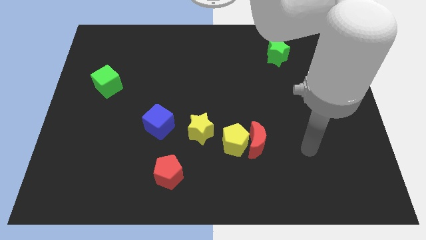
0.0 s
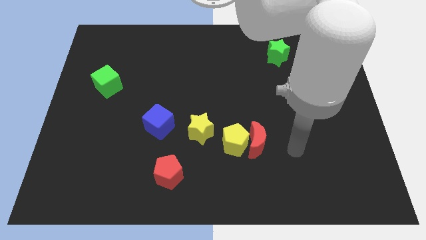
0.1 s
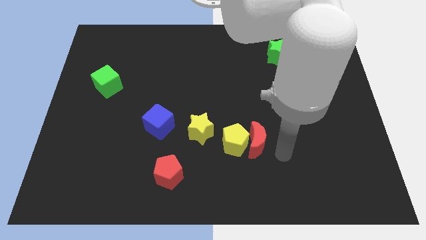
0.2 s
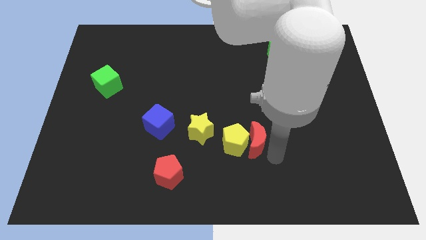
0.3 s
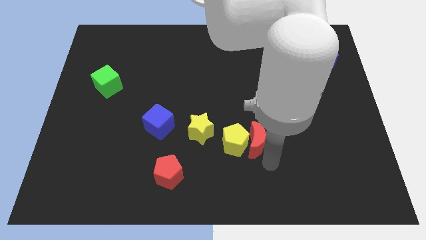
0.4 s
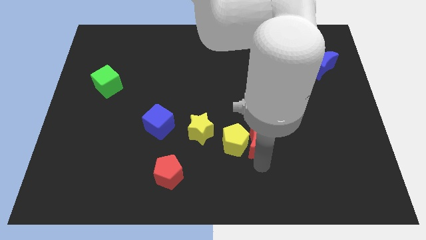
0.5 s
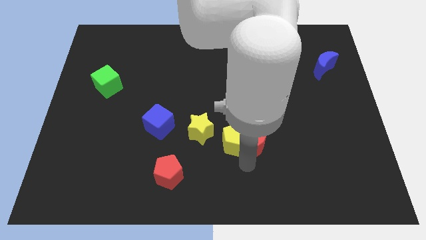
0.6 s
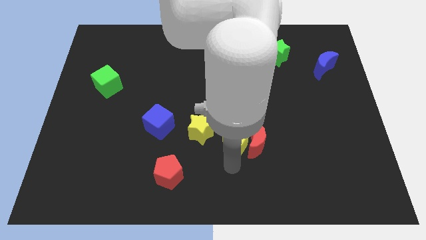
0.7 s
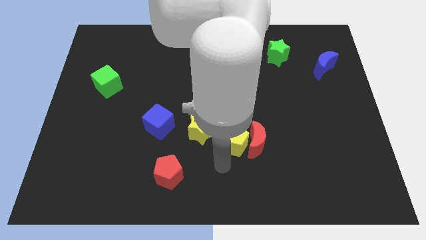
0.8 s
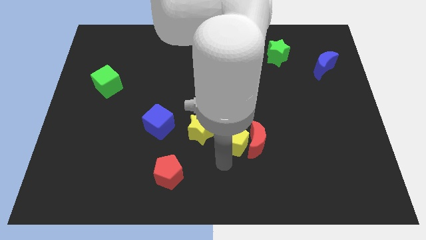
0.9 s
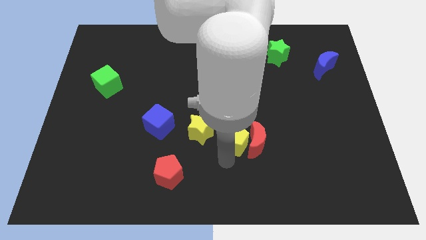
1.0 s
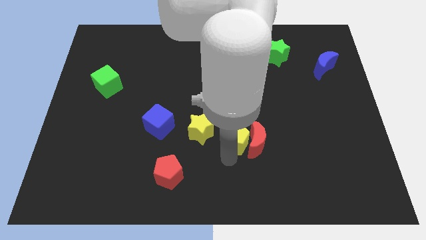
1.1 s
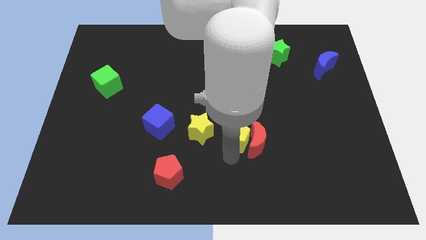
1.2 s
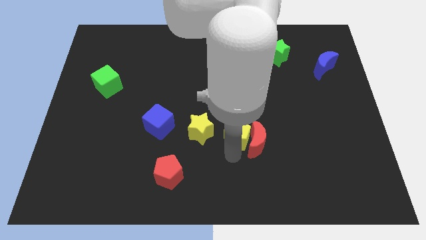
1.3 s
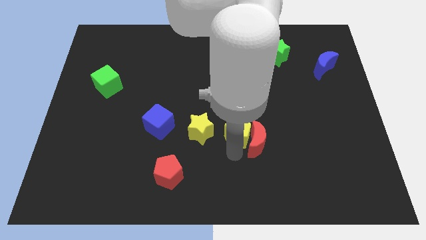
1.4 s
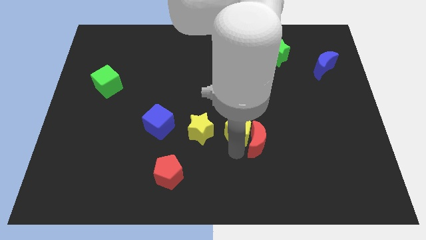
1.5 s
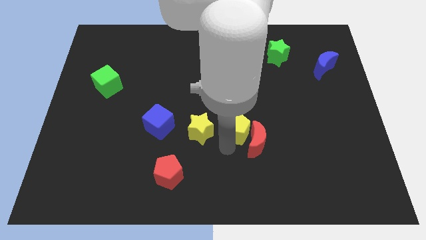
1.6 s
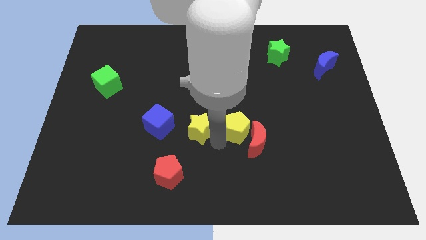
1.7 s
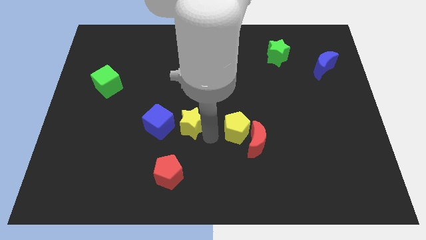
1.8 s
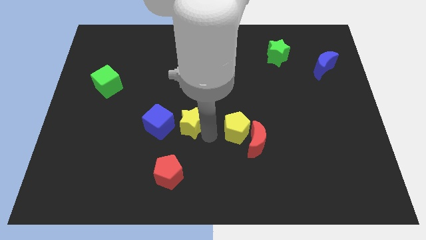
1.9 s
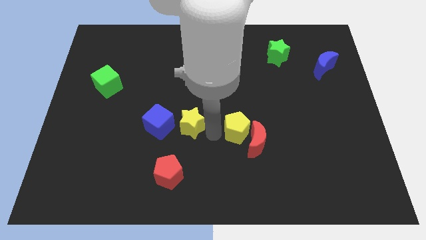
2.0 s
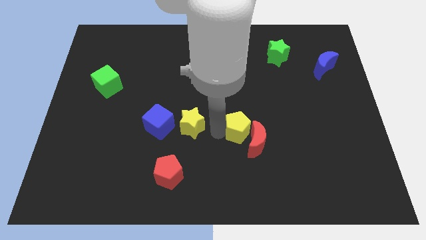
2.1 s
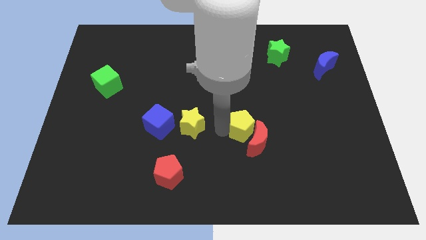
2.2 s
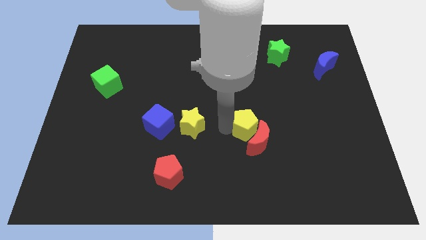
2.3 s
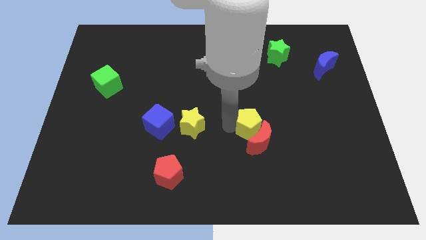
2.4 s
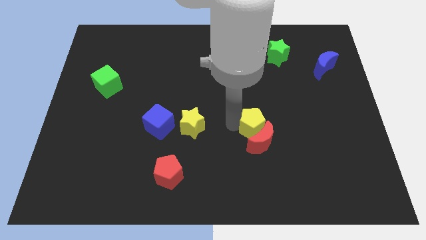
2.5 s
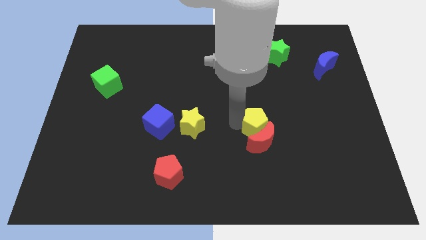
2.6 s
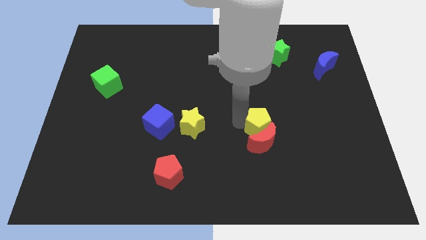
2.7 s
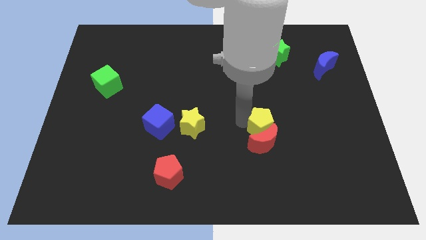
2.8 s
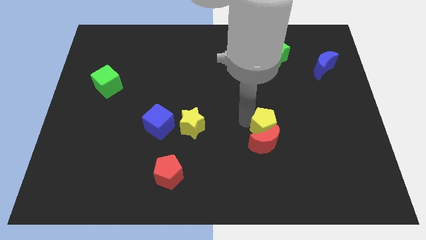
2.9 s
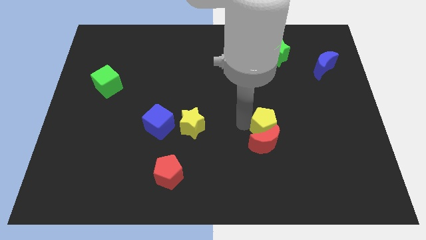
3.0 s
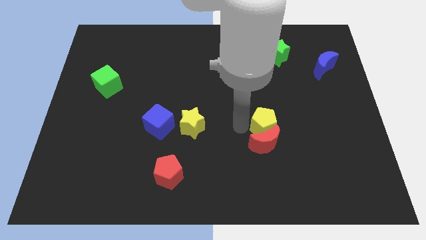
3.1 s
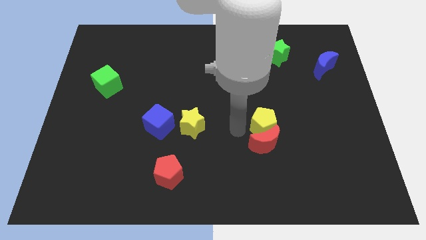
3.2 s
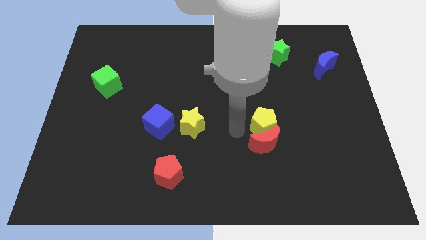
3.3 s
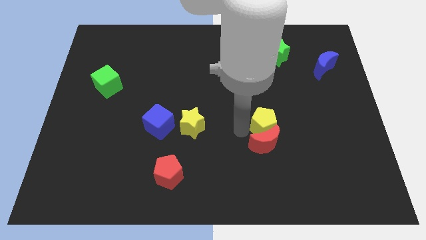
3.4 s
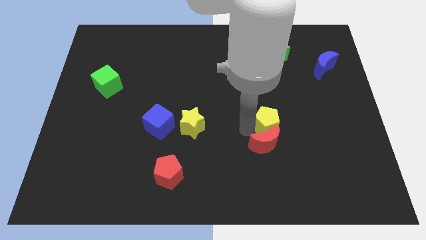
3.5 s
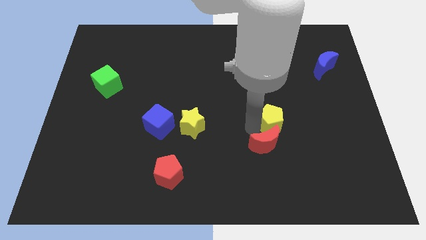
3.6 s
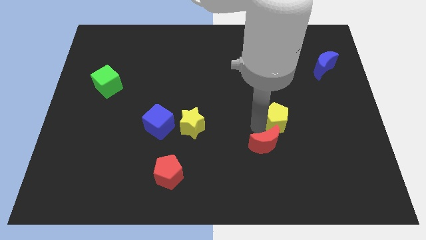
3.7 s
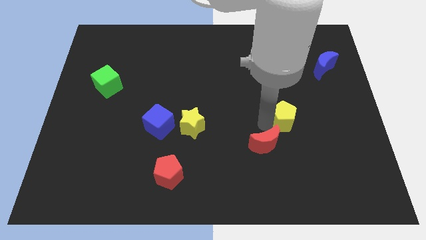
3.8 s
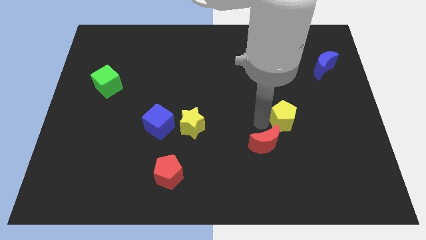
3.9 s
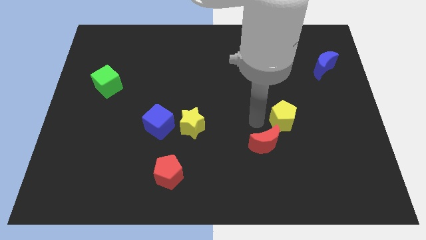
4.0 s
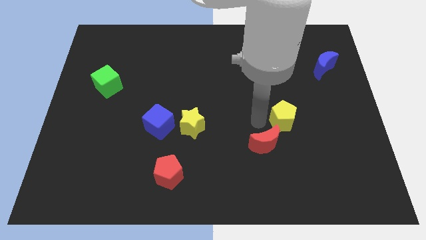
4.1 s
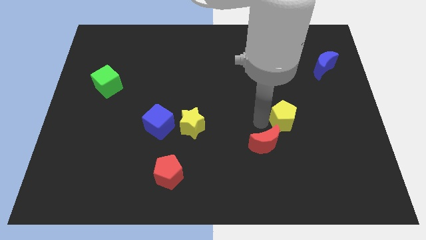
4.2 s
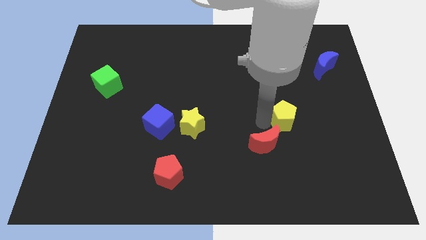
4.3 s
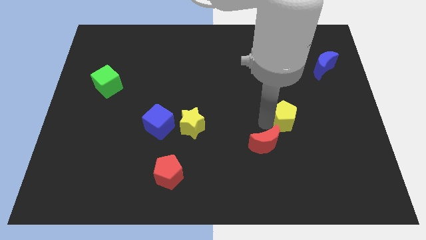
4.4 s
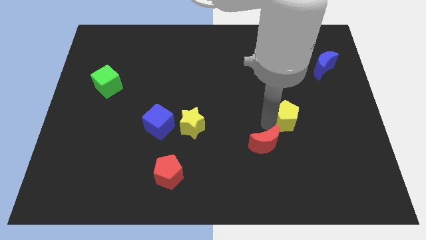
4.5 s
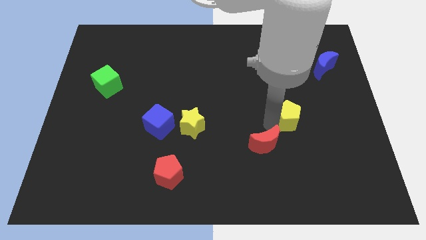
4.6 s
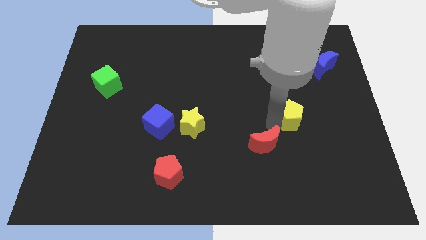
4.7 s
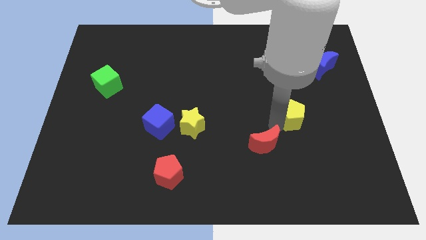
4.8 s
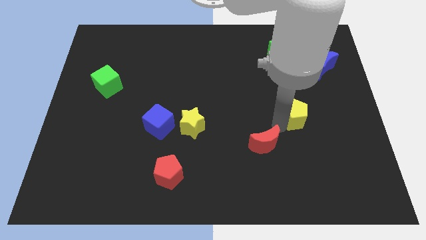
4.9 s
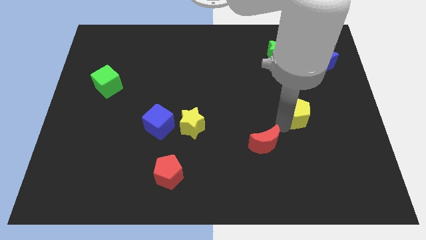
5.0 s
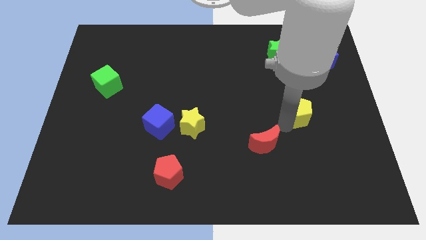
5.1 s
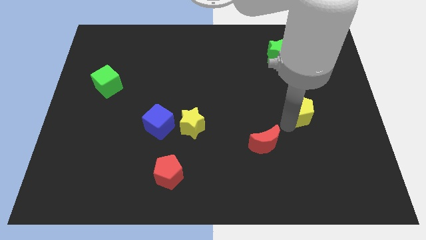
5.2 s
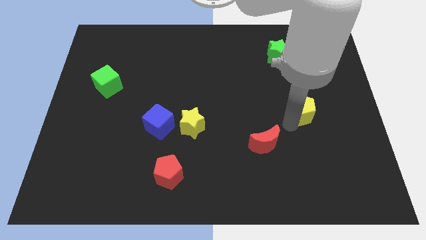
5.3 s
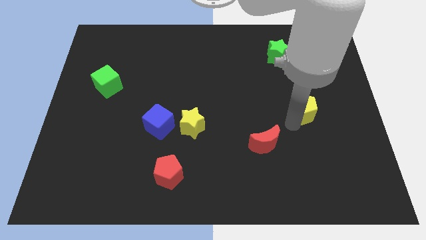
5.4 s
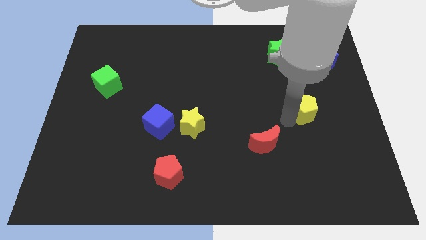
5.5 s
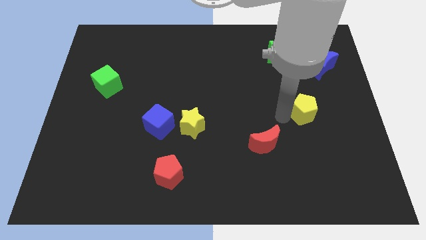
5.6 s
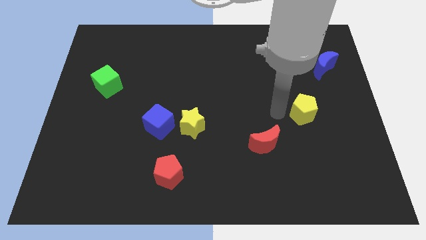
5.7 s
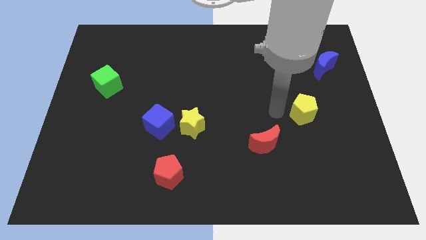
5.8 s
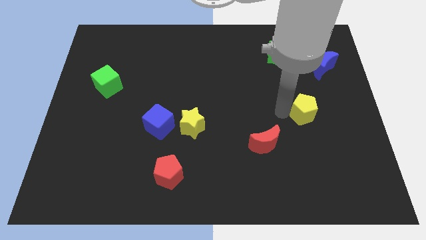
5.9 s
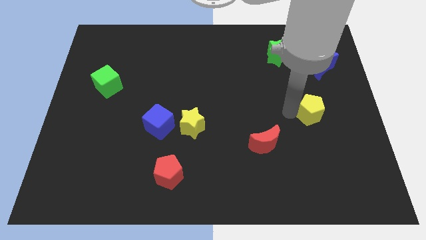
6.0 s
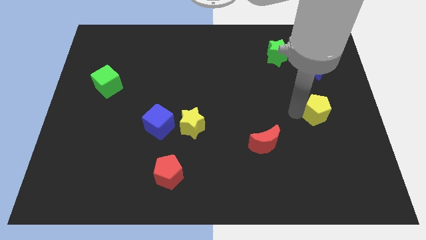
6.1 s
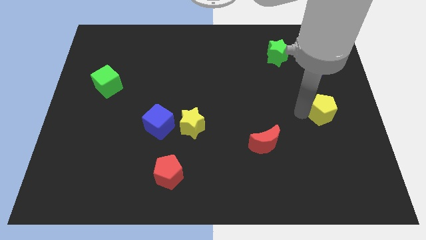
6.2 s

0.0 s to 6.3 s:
move the yellow pentagon to the right side

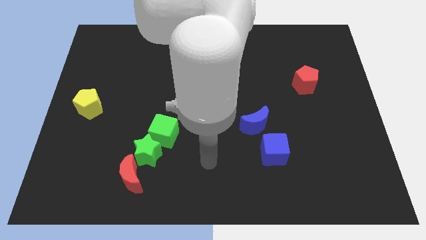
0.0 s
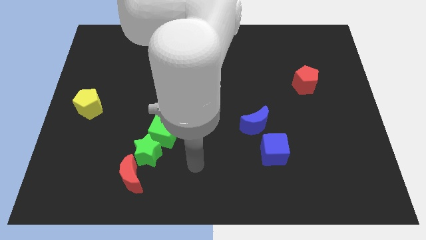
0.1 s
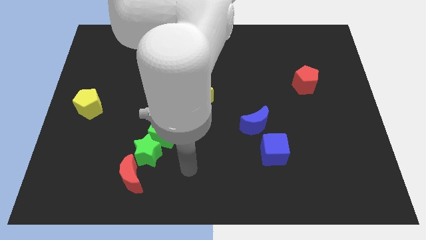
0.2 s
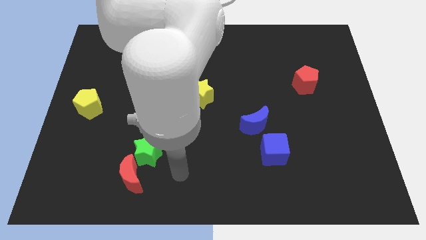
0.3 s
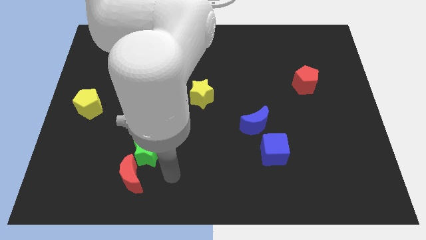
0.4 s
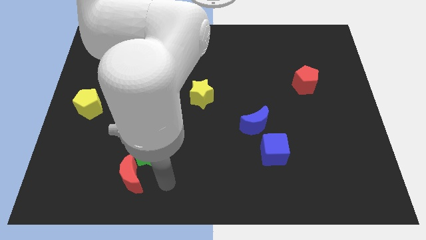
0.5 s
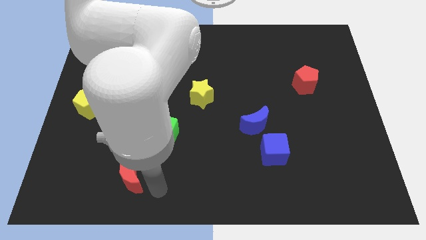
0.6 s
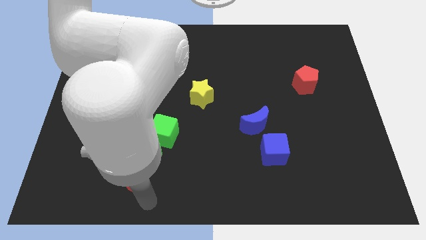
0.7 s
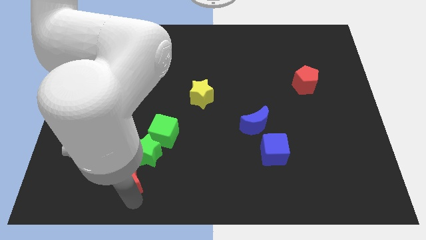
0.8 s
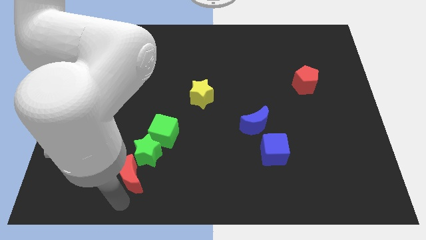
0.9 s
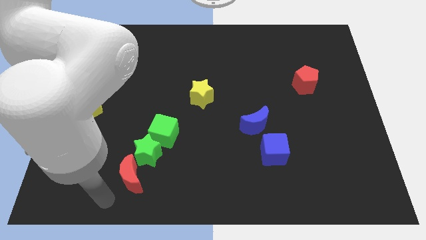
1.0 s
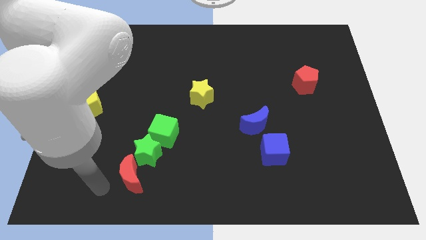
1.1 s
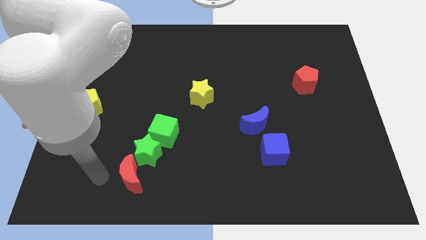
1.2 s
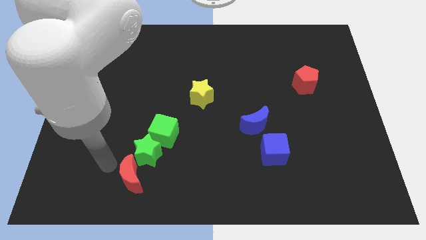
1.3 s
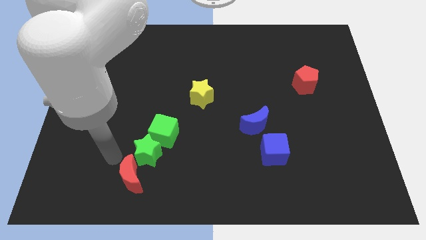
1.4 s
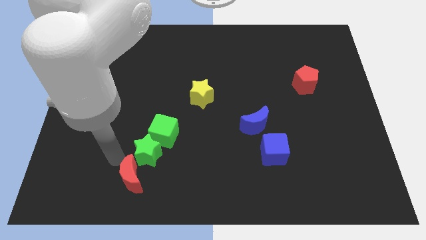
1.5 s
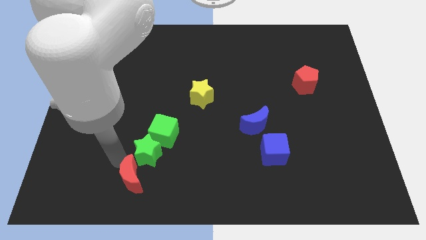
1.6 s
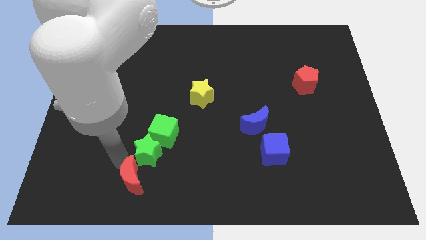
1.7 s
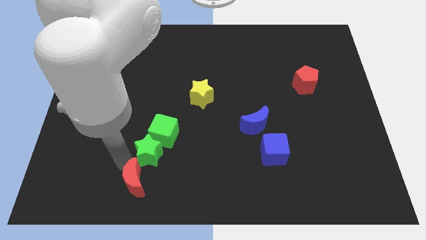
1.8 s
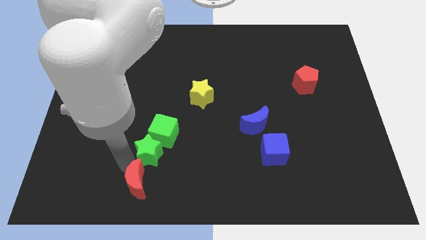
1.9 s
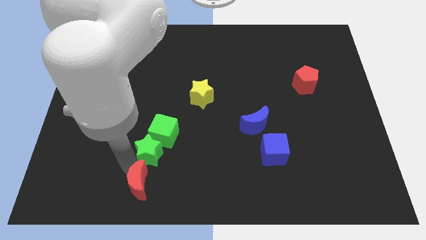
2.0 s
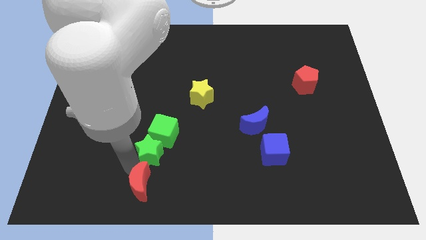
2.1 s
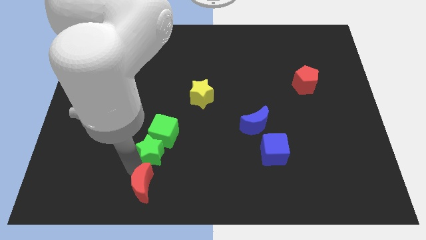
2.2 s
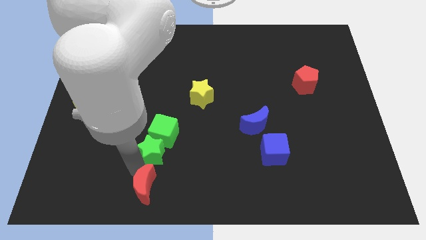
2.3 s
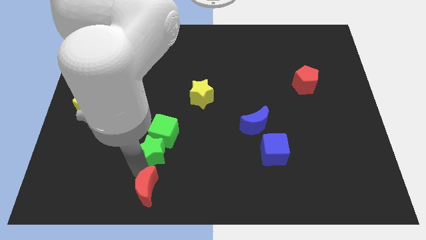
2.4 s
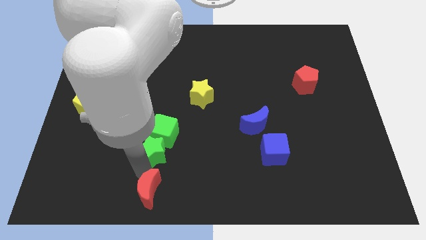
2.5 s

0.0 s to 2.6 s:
push the red moon to the bottom
